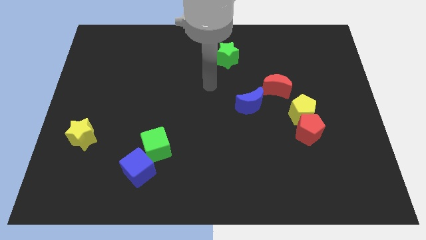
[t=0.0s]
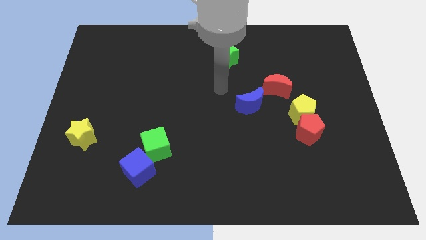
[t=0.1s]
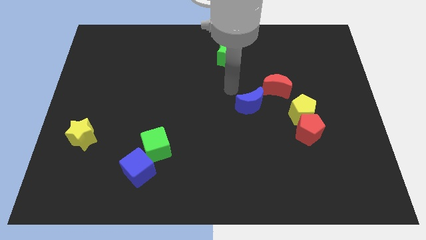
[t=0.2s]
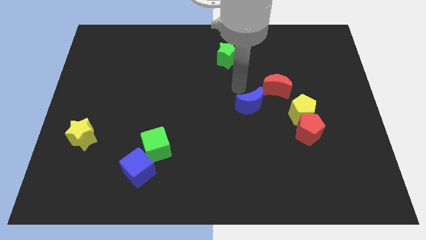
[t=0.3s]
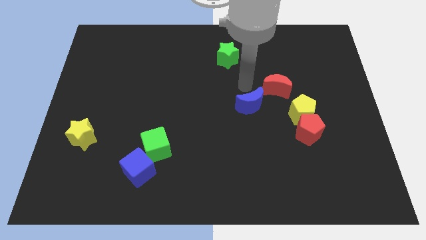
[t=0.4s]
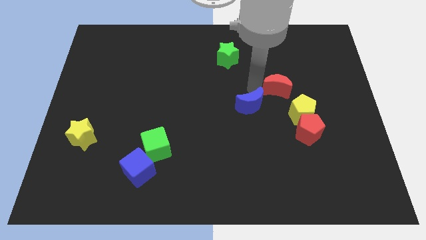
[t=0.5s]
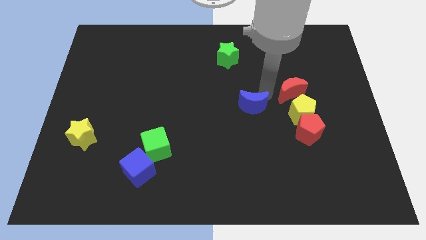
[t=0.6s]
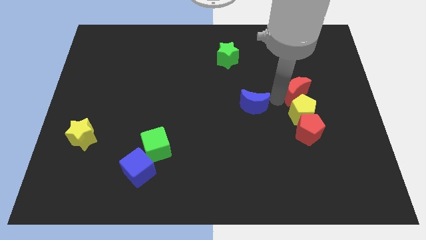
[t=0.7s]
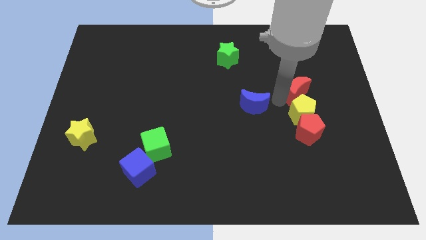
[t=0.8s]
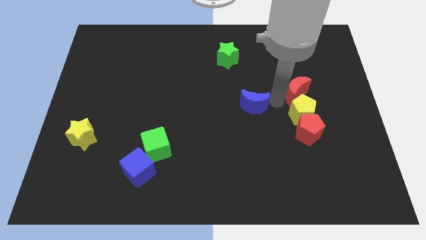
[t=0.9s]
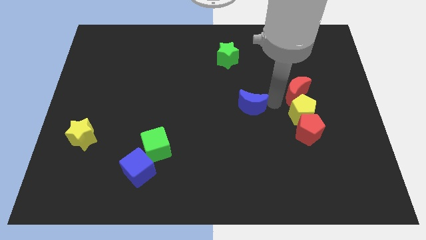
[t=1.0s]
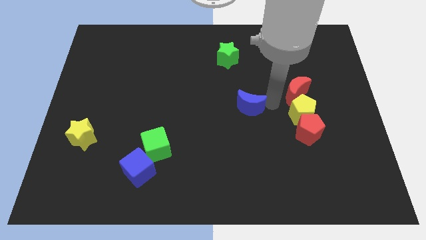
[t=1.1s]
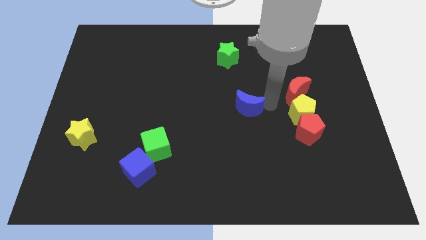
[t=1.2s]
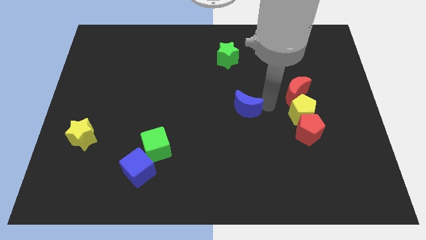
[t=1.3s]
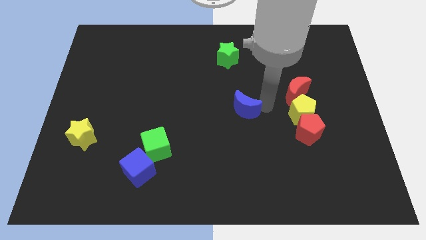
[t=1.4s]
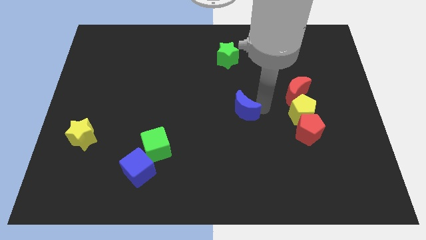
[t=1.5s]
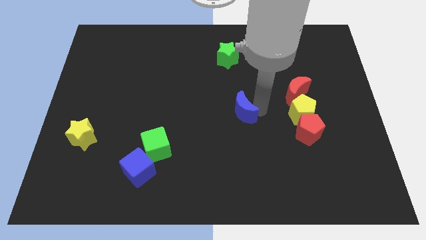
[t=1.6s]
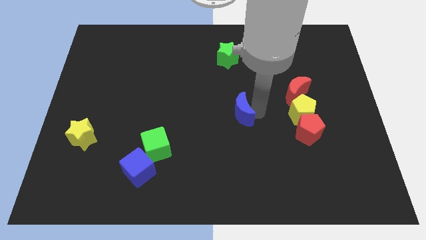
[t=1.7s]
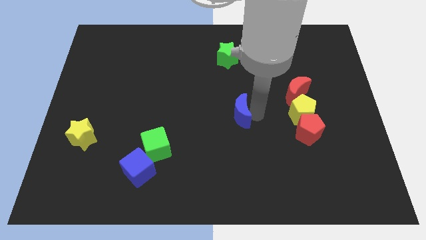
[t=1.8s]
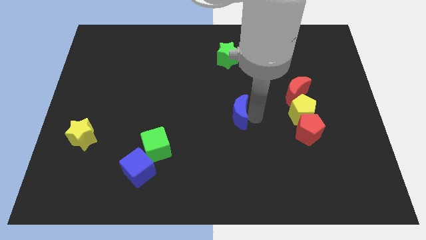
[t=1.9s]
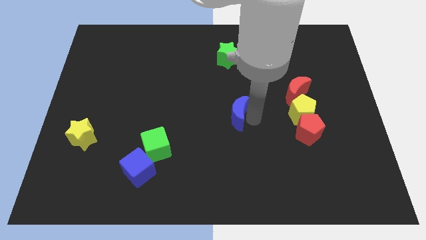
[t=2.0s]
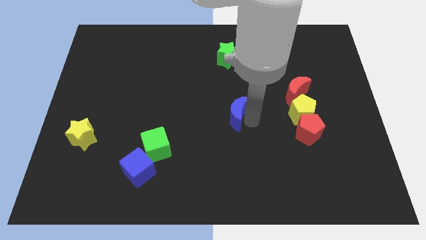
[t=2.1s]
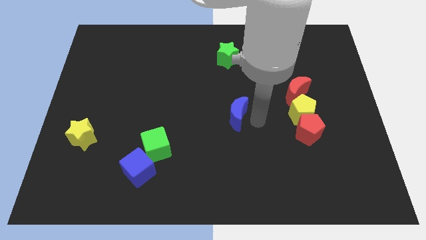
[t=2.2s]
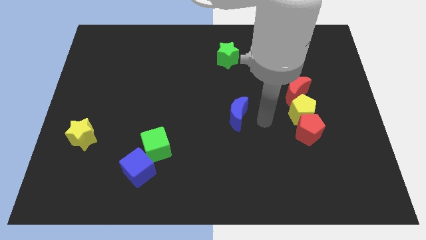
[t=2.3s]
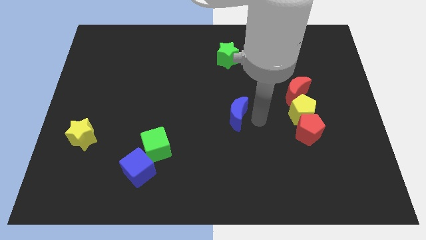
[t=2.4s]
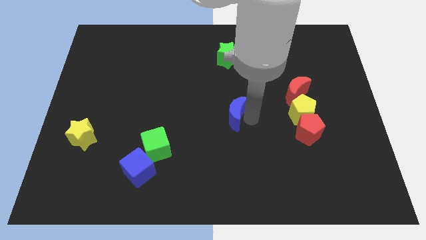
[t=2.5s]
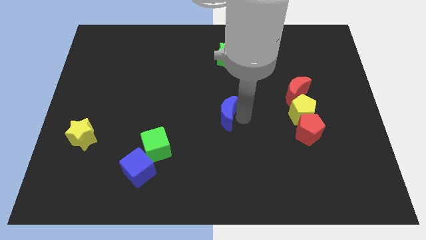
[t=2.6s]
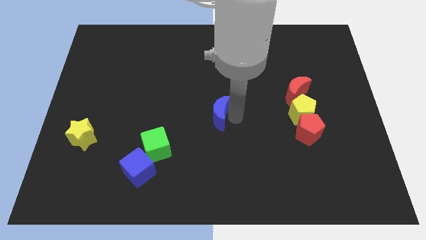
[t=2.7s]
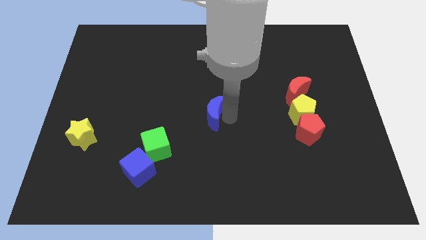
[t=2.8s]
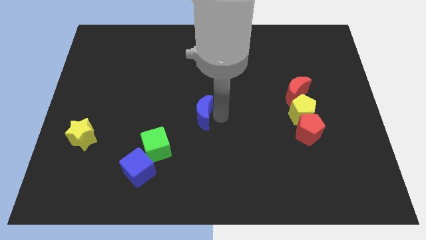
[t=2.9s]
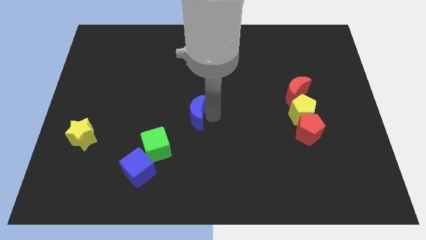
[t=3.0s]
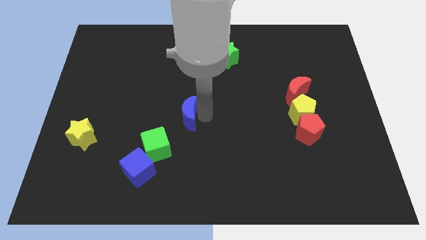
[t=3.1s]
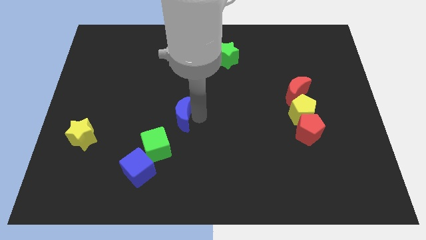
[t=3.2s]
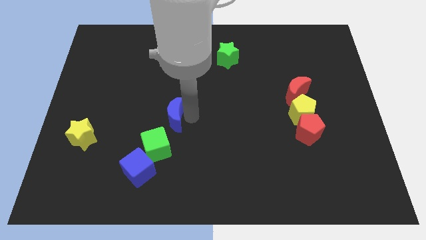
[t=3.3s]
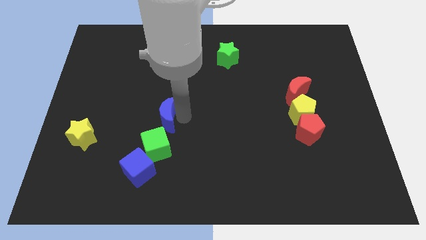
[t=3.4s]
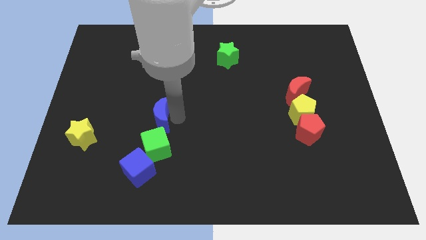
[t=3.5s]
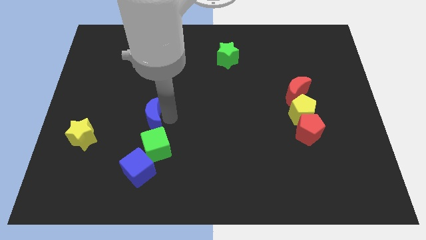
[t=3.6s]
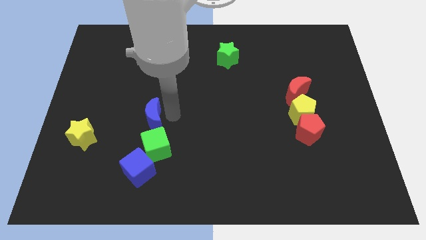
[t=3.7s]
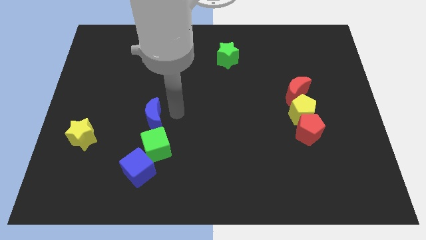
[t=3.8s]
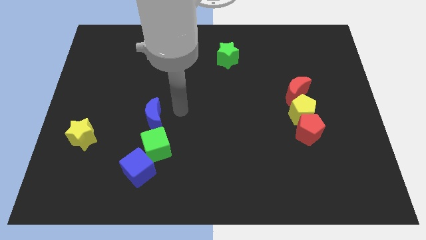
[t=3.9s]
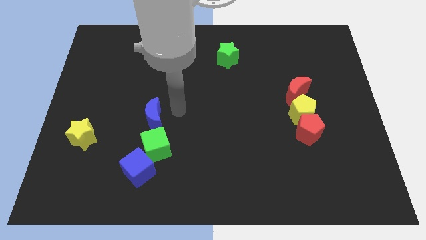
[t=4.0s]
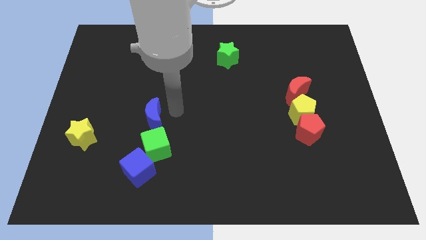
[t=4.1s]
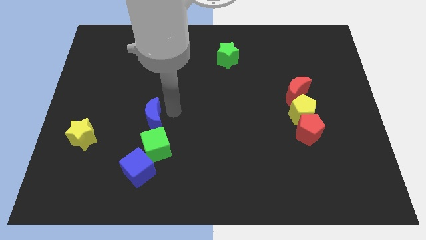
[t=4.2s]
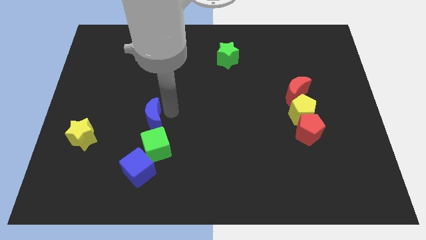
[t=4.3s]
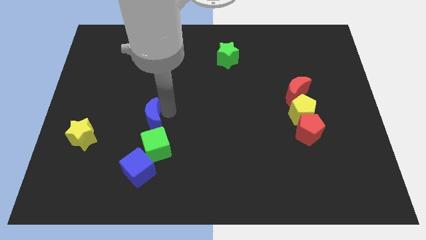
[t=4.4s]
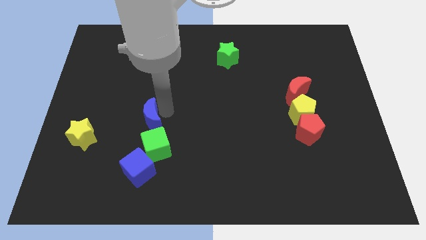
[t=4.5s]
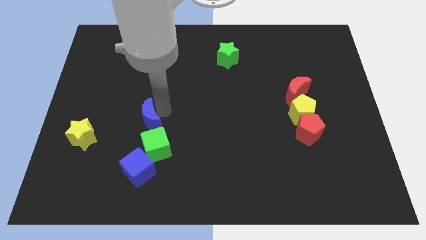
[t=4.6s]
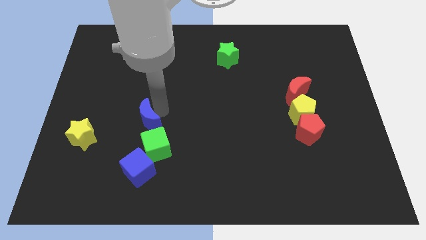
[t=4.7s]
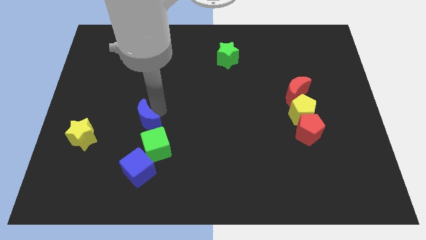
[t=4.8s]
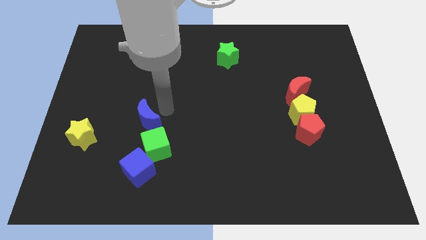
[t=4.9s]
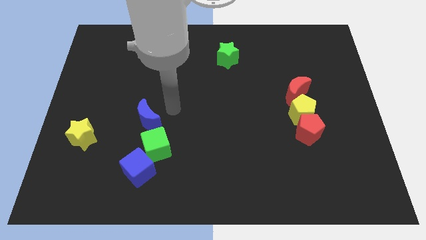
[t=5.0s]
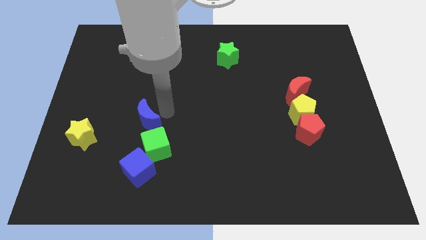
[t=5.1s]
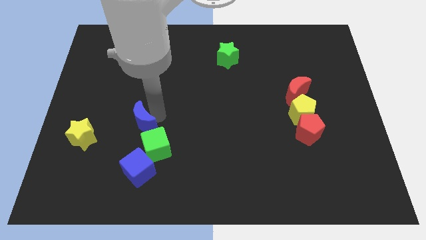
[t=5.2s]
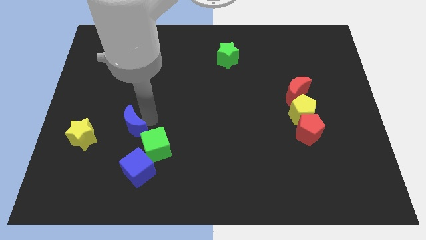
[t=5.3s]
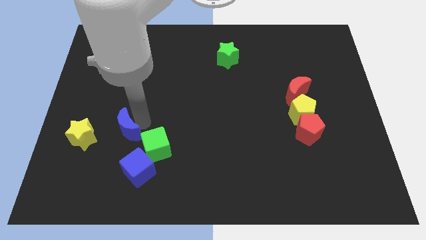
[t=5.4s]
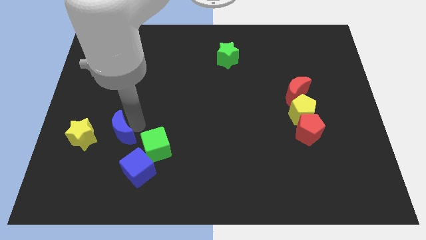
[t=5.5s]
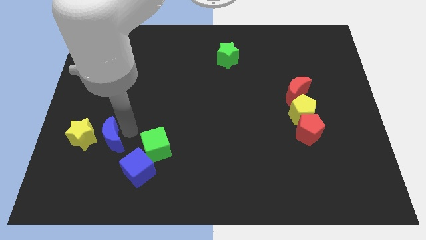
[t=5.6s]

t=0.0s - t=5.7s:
slide the blue moon next to the yellow star

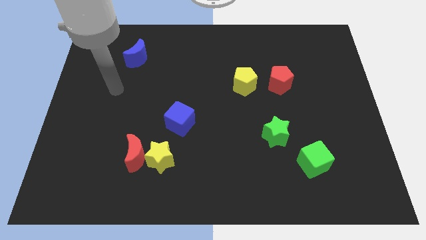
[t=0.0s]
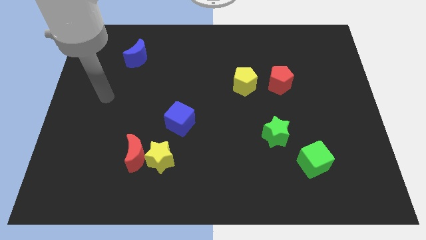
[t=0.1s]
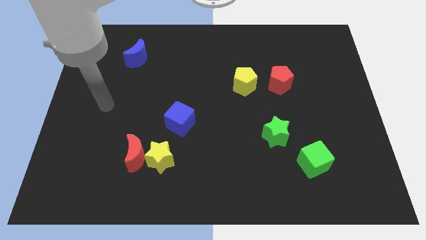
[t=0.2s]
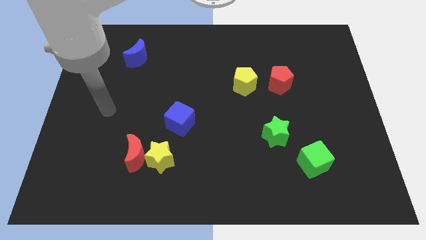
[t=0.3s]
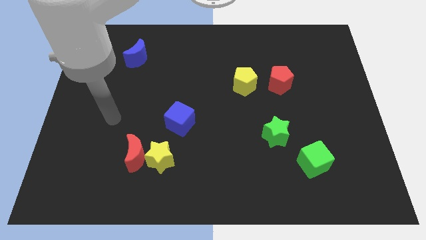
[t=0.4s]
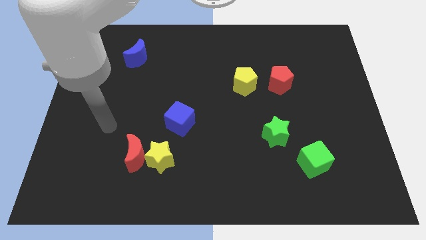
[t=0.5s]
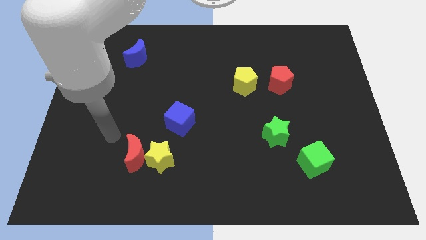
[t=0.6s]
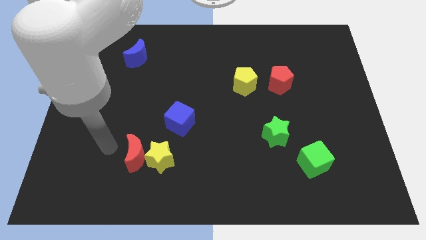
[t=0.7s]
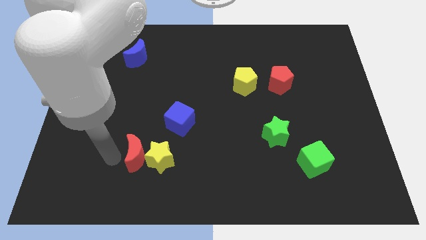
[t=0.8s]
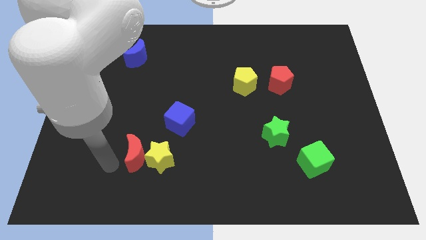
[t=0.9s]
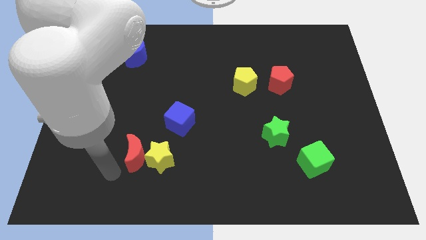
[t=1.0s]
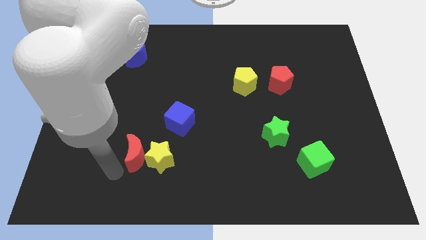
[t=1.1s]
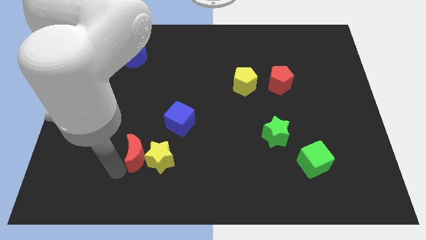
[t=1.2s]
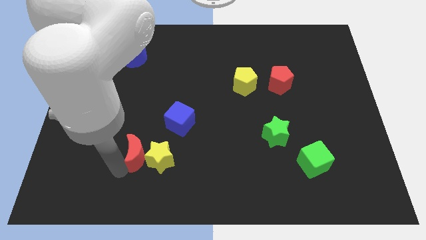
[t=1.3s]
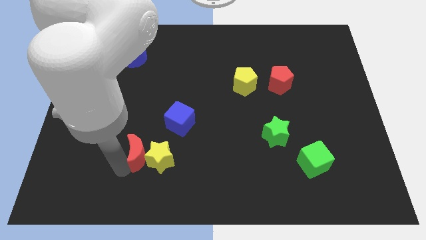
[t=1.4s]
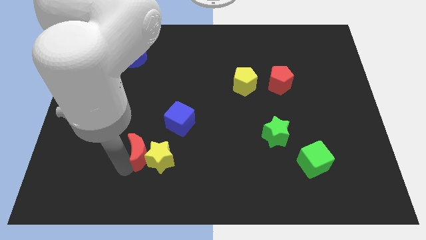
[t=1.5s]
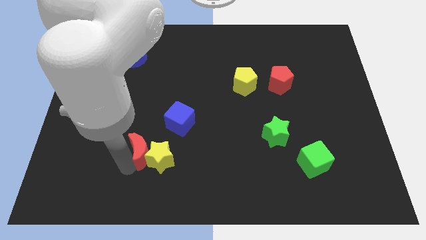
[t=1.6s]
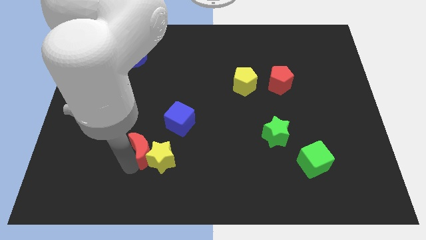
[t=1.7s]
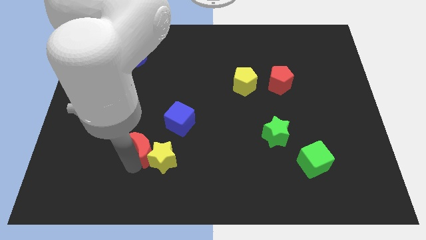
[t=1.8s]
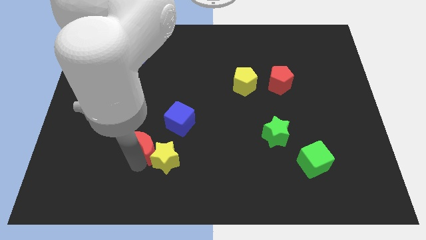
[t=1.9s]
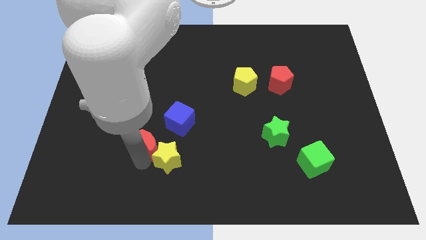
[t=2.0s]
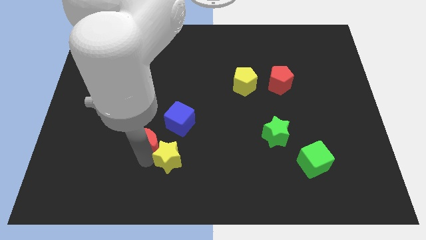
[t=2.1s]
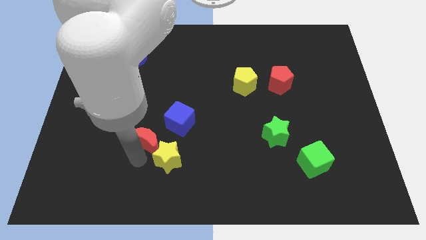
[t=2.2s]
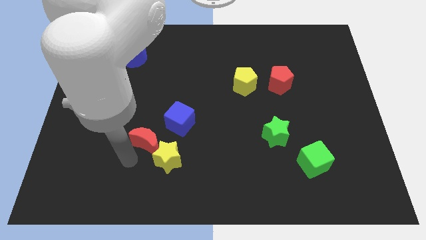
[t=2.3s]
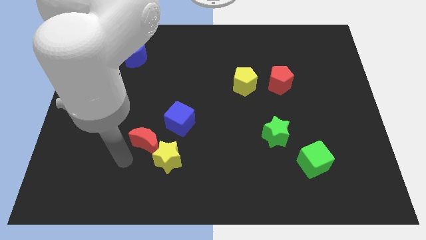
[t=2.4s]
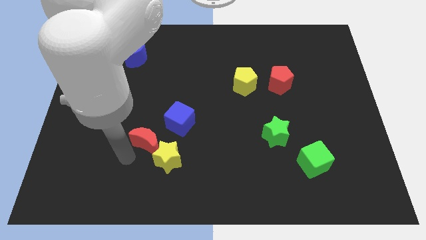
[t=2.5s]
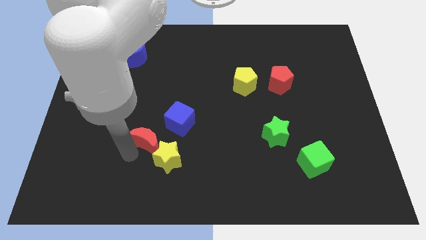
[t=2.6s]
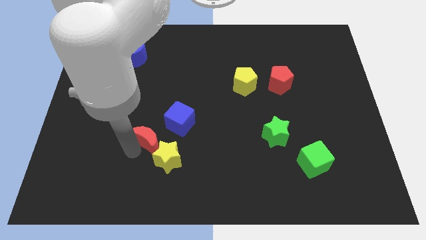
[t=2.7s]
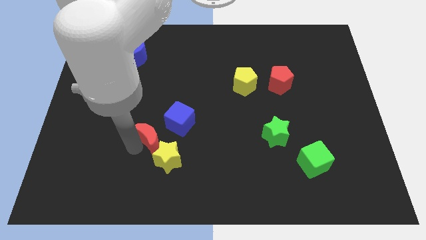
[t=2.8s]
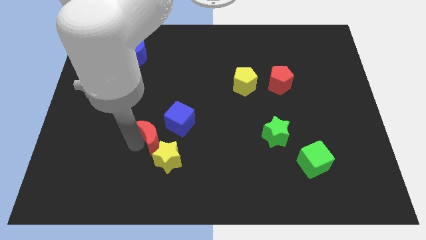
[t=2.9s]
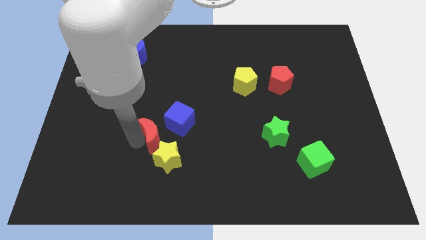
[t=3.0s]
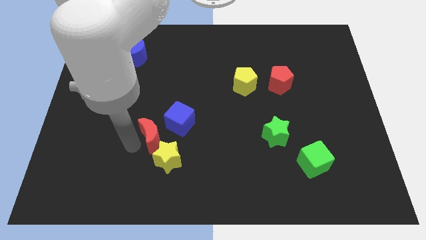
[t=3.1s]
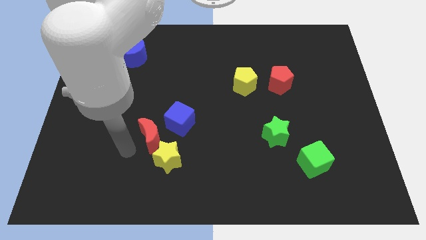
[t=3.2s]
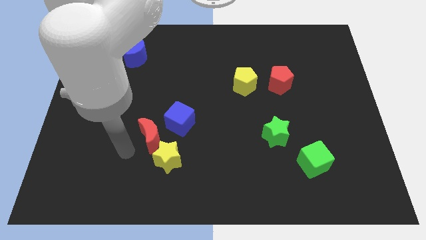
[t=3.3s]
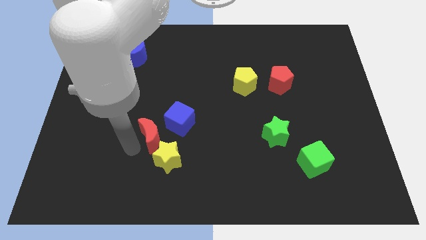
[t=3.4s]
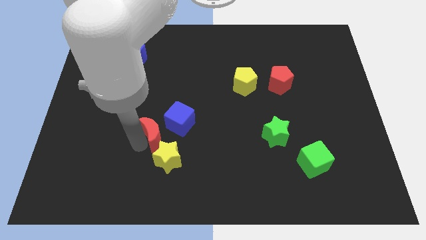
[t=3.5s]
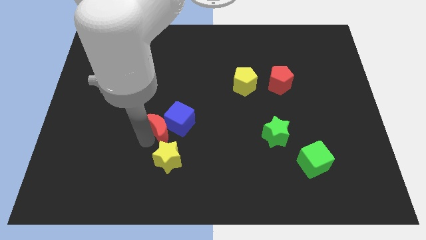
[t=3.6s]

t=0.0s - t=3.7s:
put the red moon towards the blue cube
